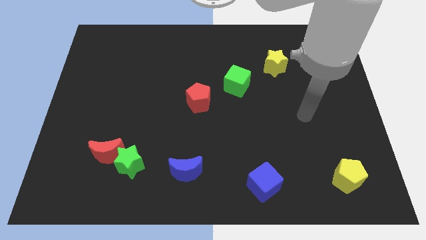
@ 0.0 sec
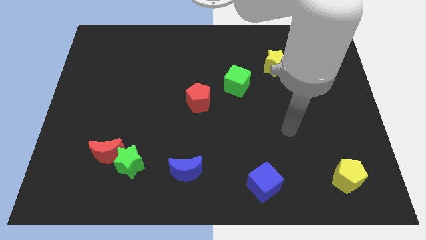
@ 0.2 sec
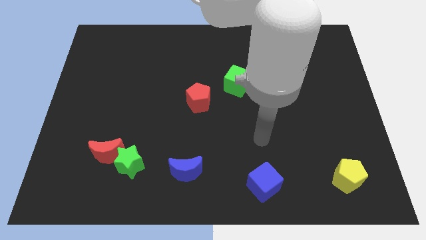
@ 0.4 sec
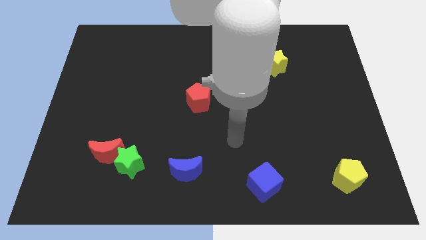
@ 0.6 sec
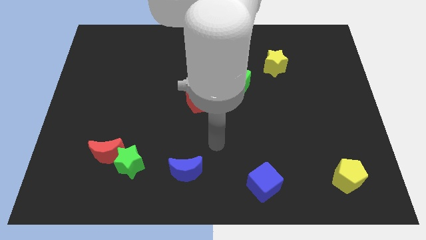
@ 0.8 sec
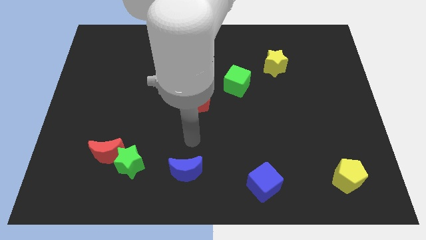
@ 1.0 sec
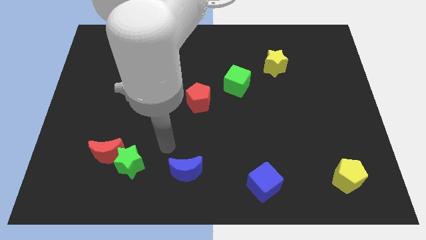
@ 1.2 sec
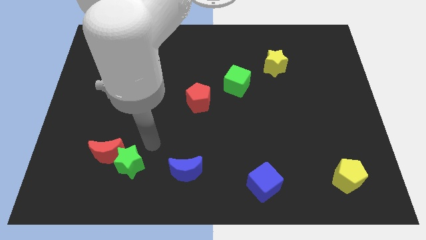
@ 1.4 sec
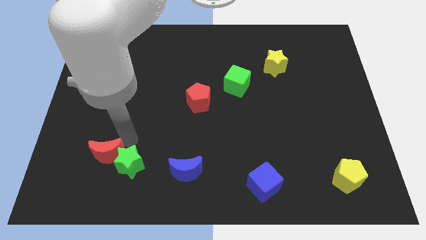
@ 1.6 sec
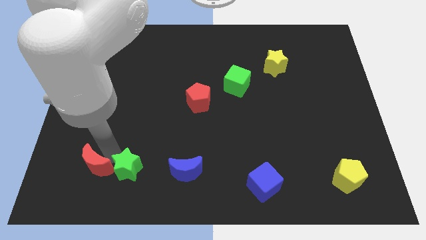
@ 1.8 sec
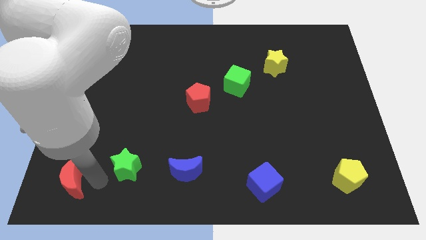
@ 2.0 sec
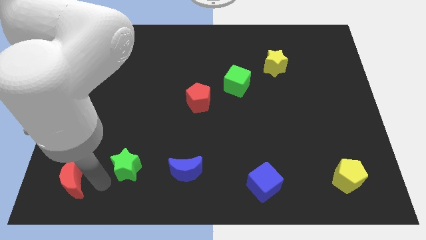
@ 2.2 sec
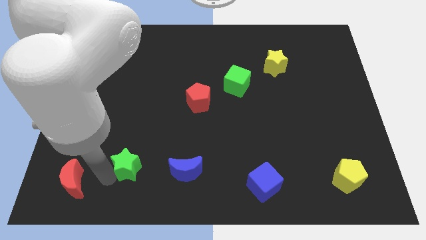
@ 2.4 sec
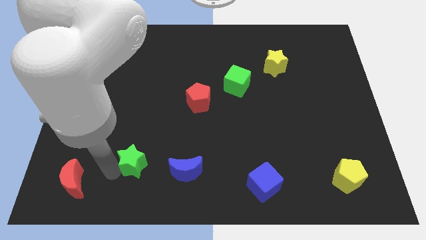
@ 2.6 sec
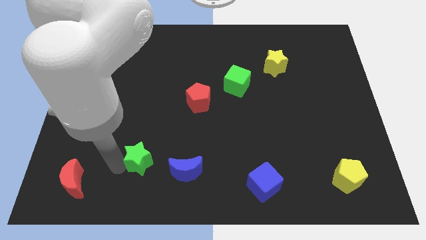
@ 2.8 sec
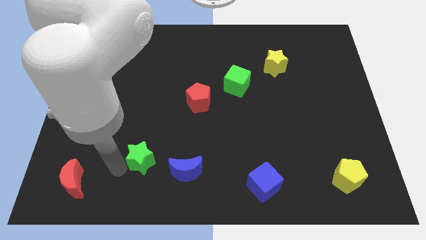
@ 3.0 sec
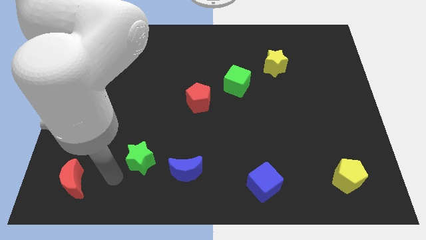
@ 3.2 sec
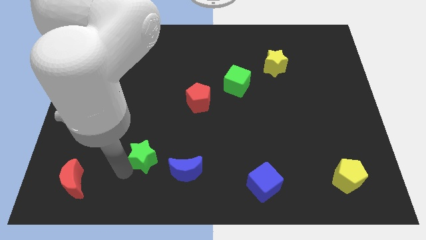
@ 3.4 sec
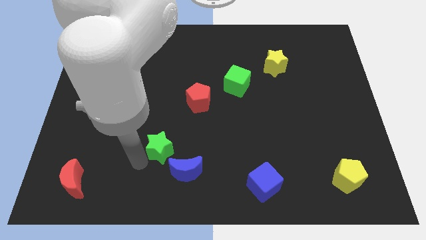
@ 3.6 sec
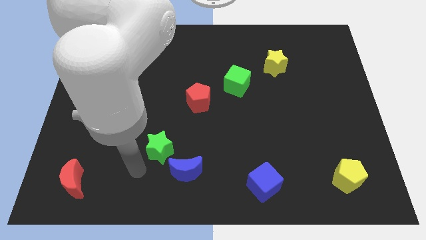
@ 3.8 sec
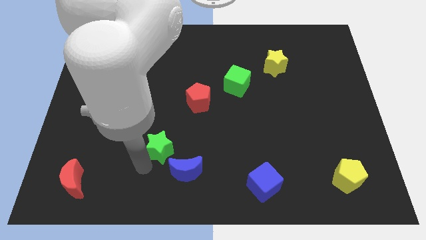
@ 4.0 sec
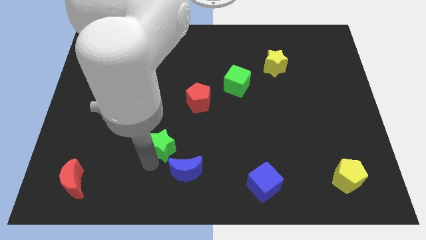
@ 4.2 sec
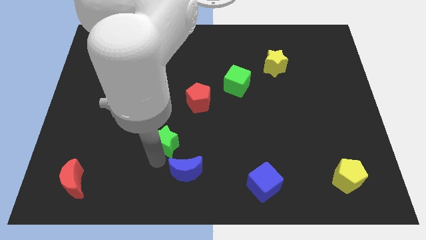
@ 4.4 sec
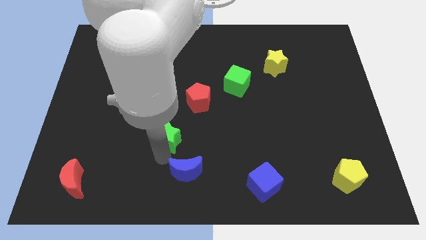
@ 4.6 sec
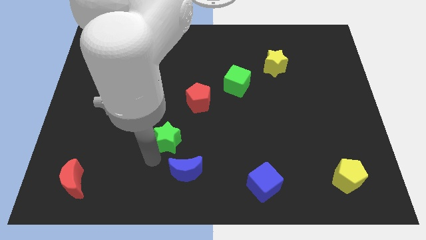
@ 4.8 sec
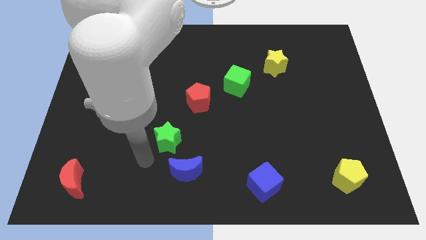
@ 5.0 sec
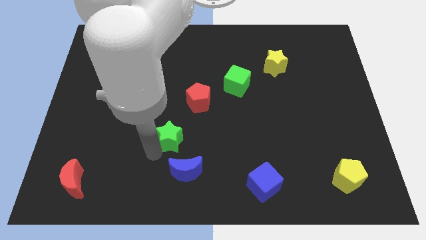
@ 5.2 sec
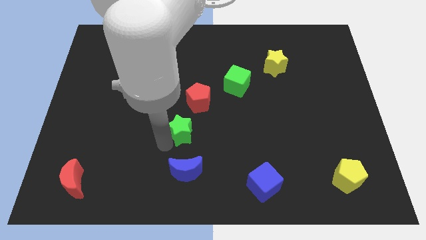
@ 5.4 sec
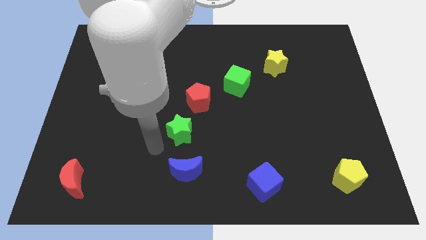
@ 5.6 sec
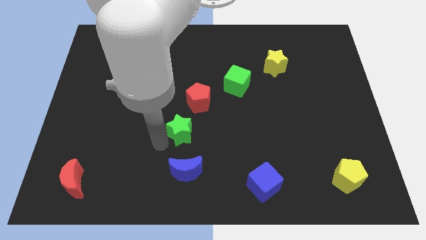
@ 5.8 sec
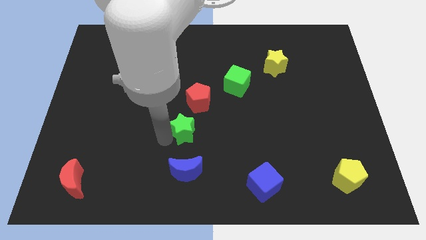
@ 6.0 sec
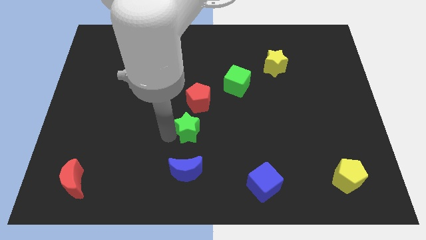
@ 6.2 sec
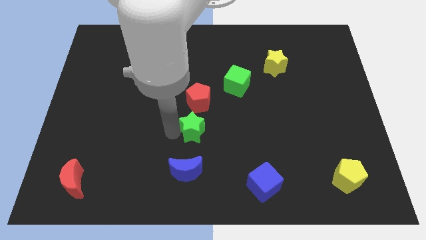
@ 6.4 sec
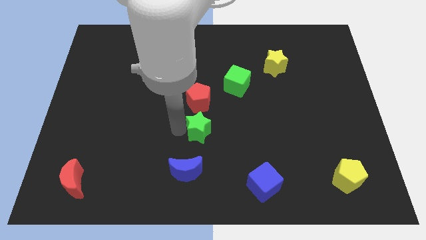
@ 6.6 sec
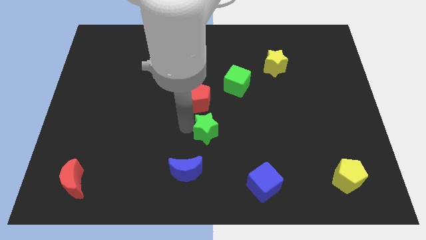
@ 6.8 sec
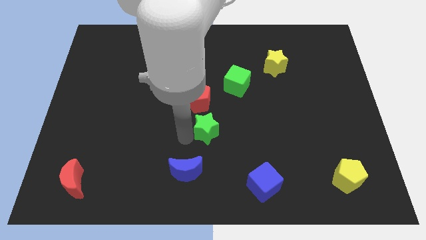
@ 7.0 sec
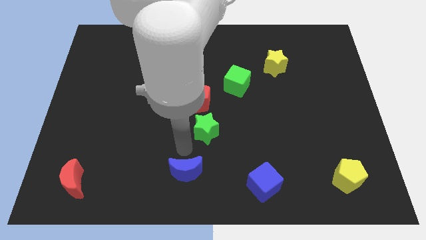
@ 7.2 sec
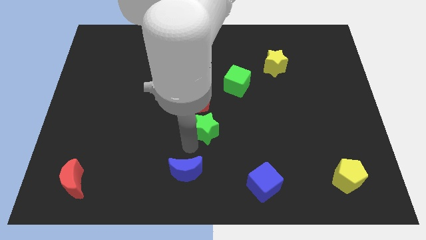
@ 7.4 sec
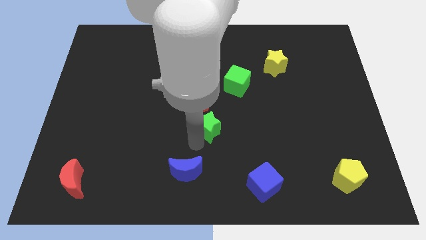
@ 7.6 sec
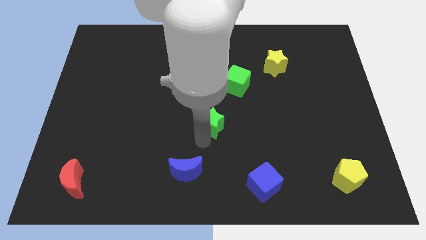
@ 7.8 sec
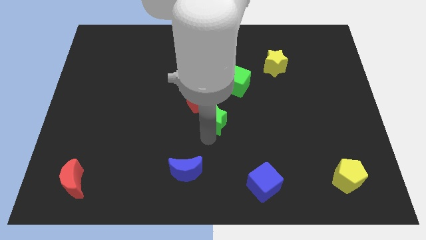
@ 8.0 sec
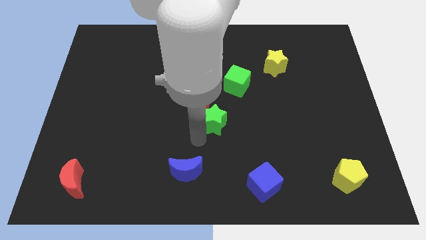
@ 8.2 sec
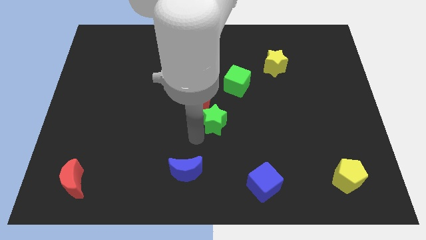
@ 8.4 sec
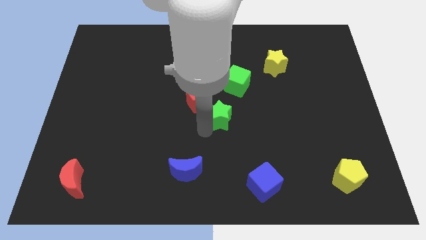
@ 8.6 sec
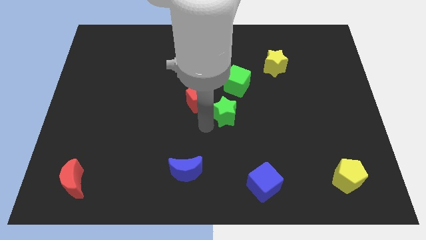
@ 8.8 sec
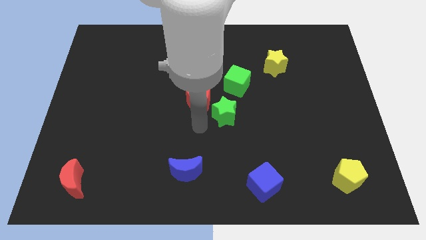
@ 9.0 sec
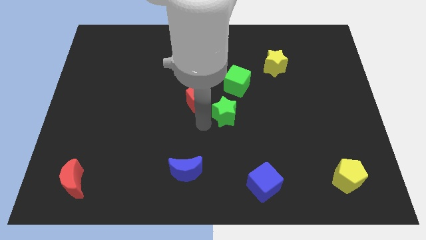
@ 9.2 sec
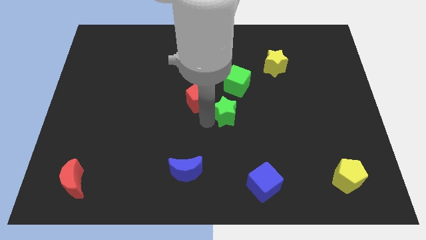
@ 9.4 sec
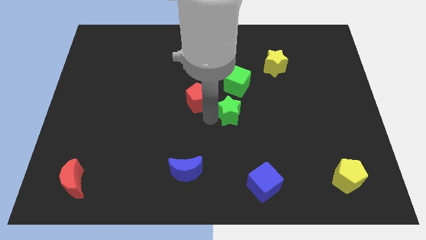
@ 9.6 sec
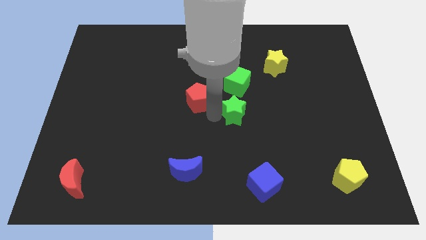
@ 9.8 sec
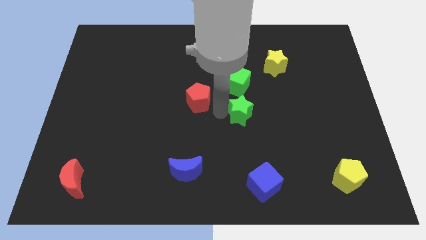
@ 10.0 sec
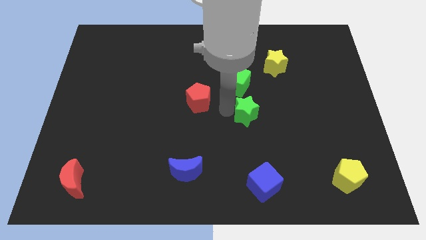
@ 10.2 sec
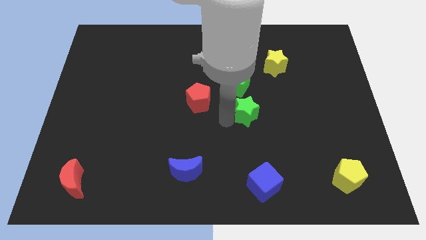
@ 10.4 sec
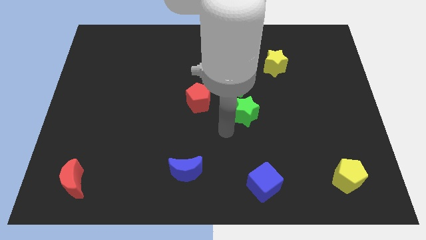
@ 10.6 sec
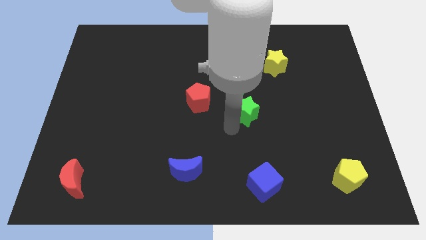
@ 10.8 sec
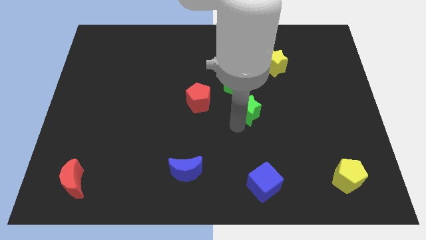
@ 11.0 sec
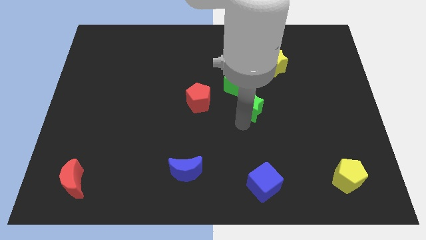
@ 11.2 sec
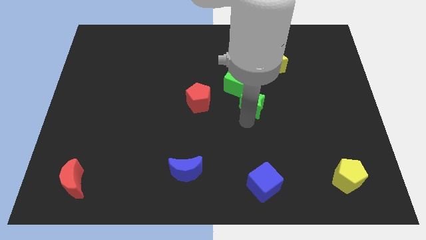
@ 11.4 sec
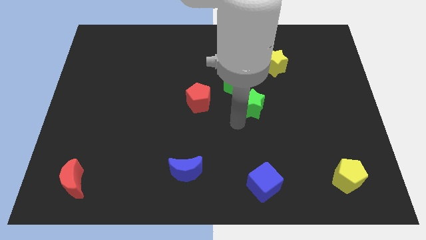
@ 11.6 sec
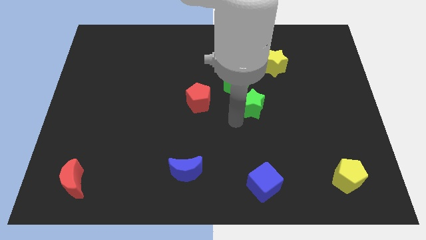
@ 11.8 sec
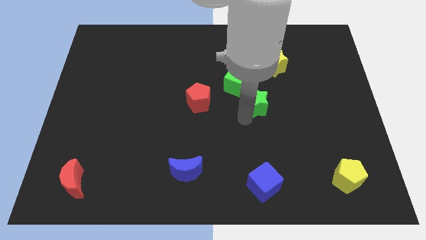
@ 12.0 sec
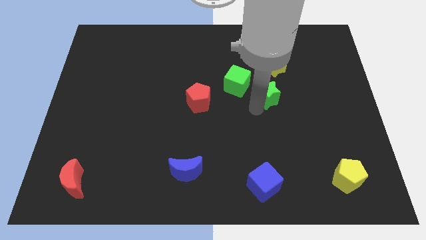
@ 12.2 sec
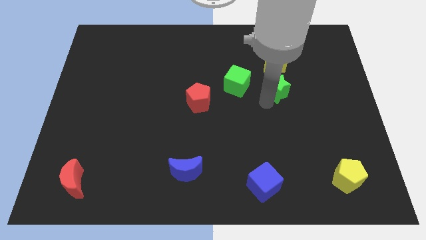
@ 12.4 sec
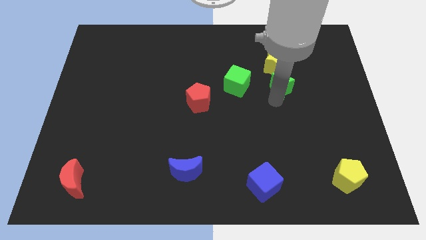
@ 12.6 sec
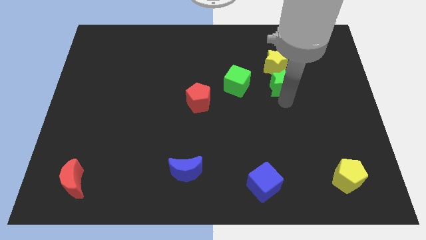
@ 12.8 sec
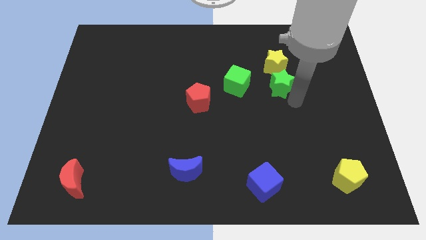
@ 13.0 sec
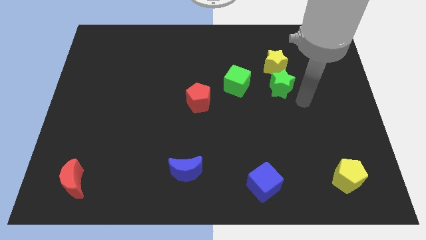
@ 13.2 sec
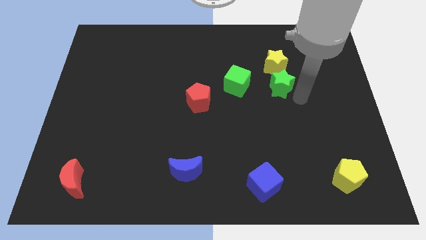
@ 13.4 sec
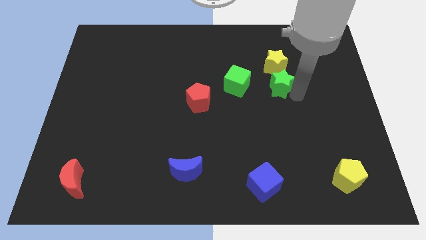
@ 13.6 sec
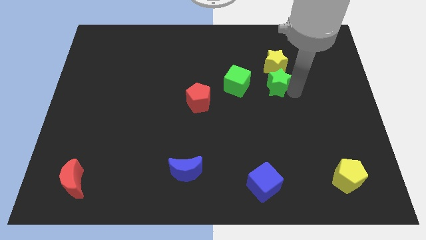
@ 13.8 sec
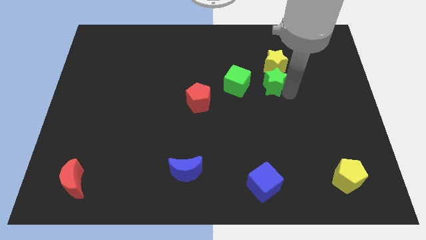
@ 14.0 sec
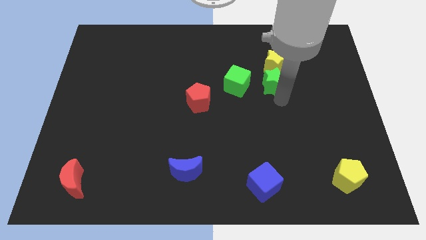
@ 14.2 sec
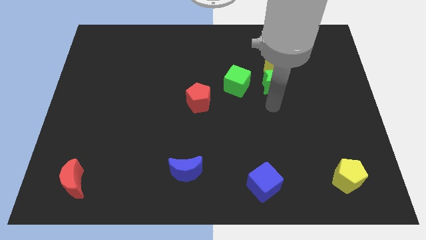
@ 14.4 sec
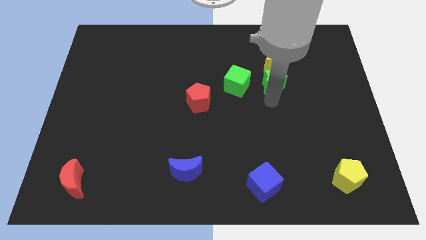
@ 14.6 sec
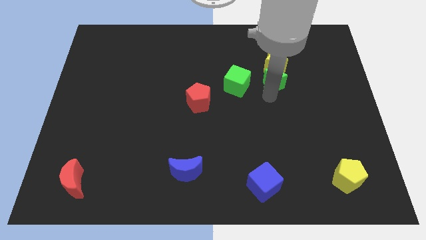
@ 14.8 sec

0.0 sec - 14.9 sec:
slide the green star close to the yellow star

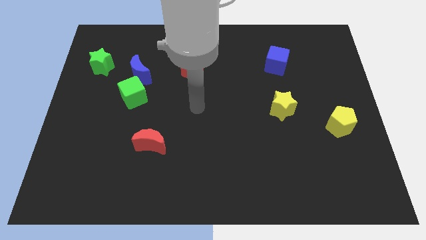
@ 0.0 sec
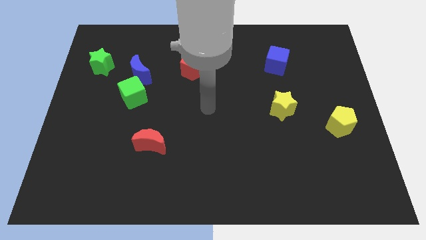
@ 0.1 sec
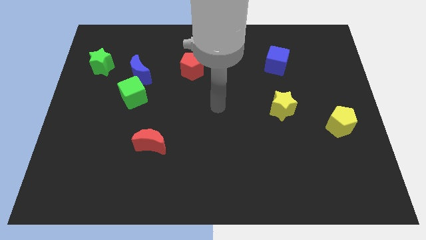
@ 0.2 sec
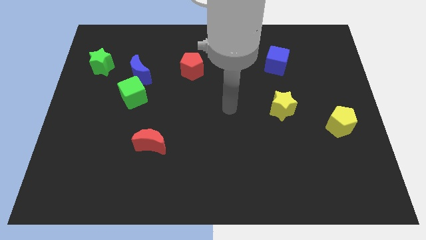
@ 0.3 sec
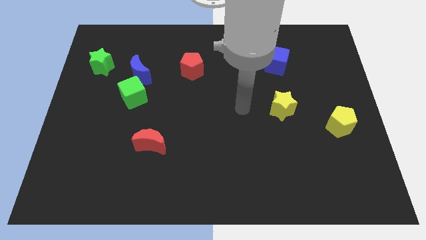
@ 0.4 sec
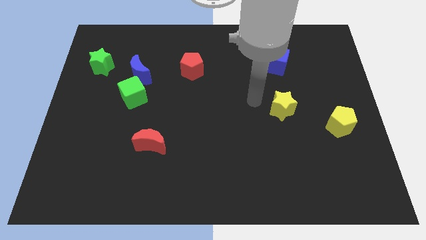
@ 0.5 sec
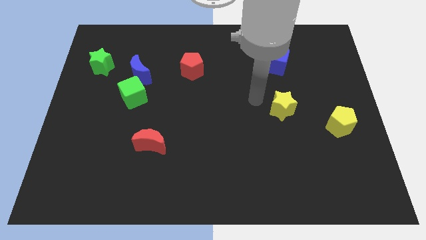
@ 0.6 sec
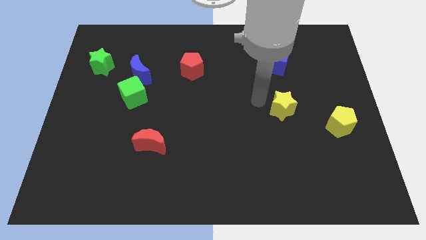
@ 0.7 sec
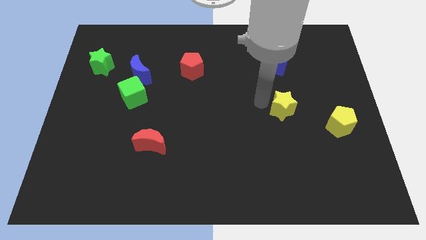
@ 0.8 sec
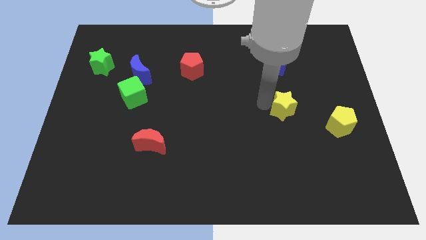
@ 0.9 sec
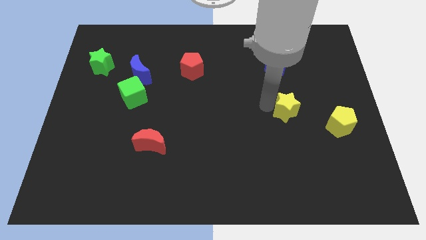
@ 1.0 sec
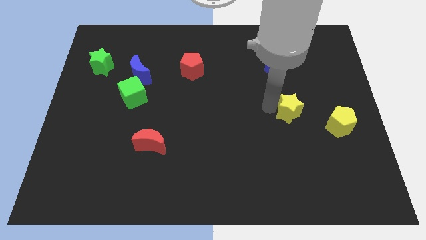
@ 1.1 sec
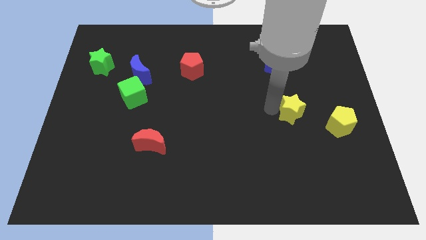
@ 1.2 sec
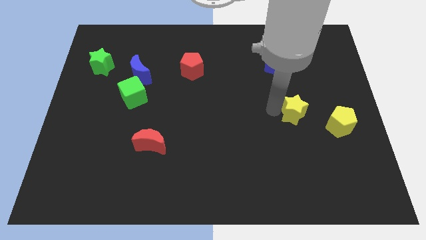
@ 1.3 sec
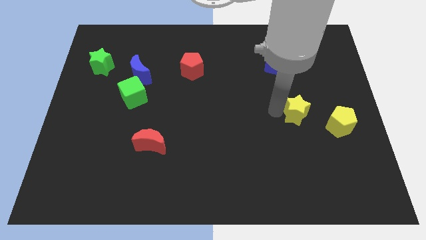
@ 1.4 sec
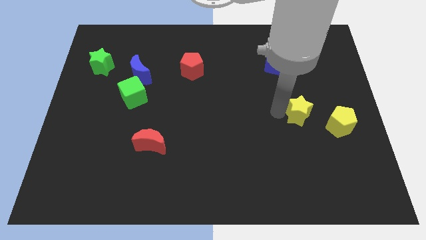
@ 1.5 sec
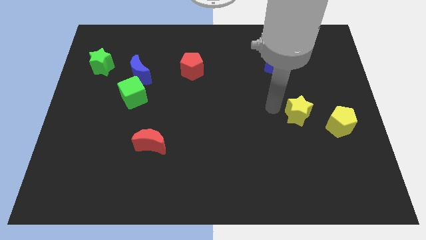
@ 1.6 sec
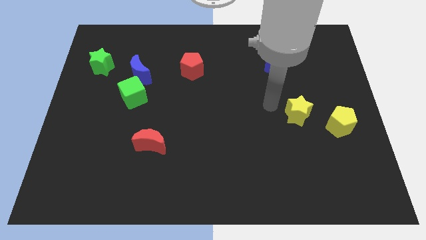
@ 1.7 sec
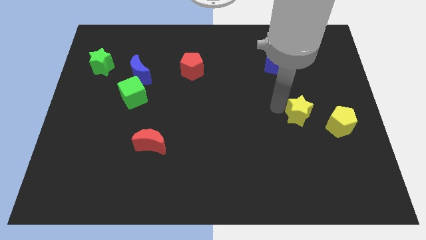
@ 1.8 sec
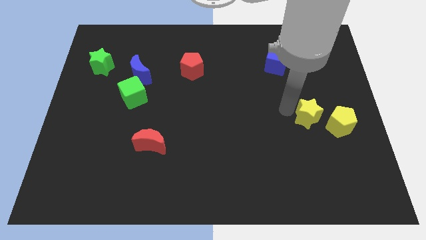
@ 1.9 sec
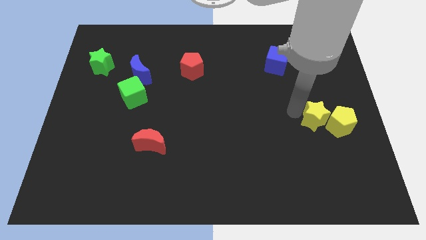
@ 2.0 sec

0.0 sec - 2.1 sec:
move the yellow star towards the yellow pentagon
